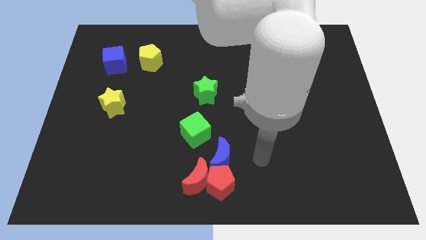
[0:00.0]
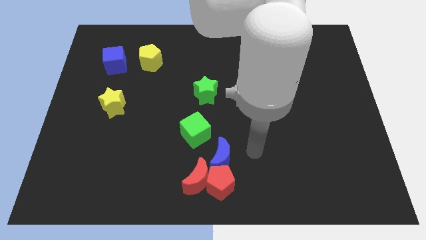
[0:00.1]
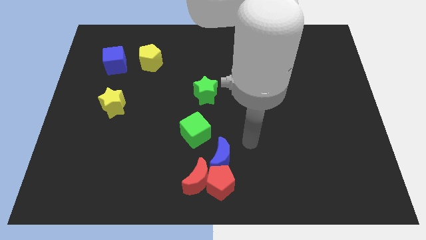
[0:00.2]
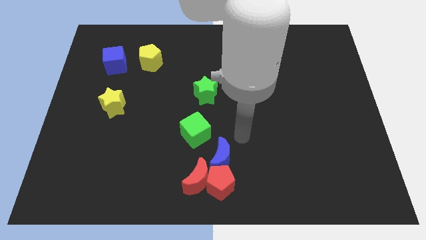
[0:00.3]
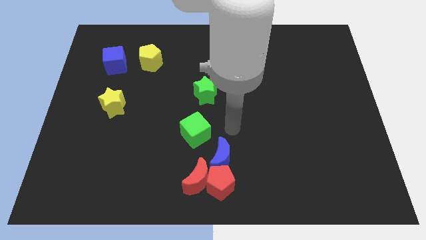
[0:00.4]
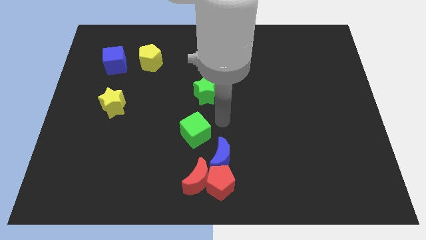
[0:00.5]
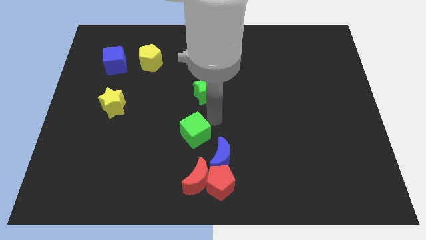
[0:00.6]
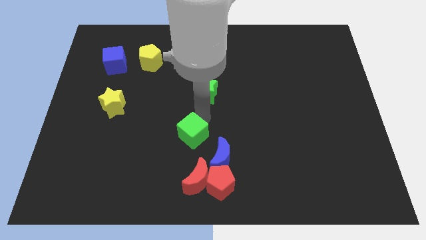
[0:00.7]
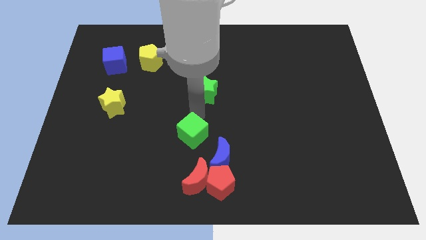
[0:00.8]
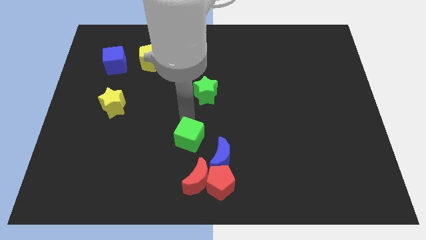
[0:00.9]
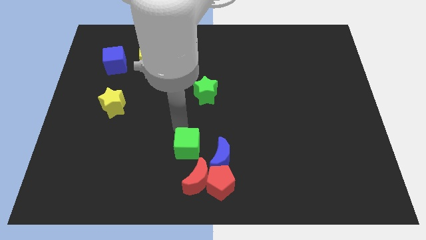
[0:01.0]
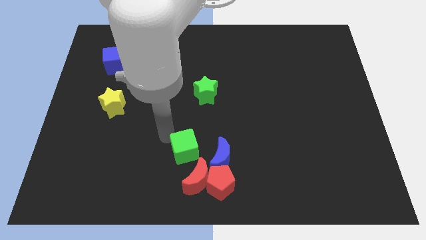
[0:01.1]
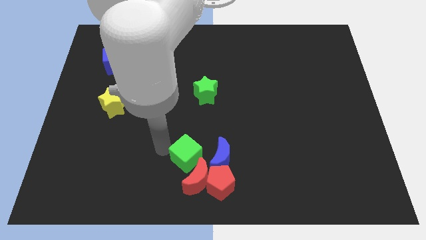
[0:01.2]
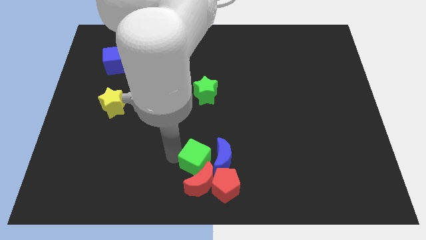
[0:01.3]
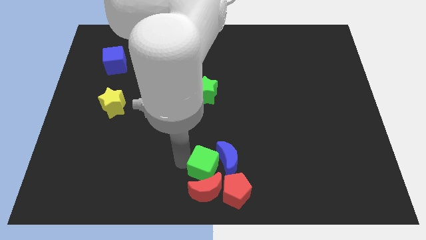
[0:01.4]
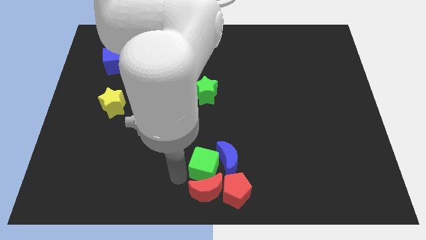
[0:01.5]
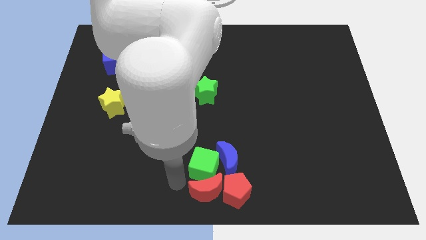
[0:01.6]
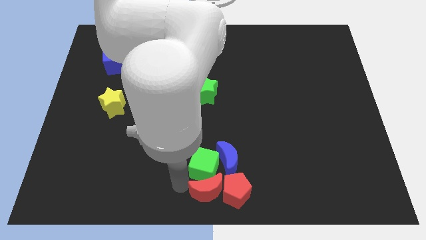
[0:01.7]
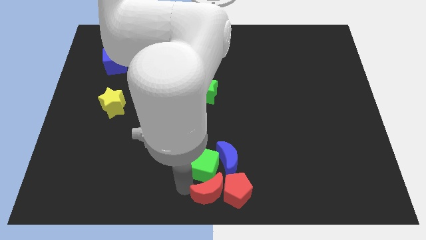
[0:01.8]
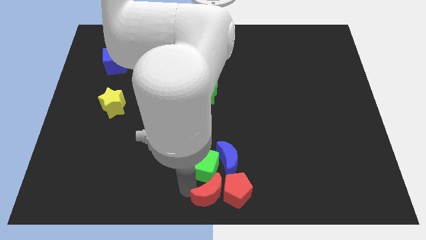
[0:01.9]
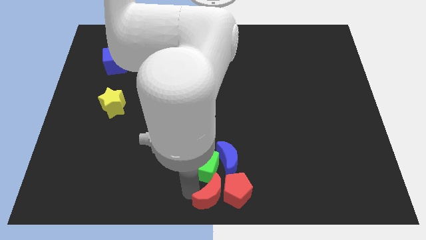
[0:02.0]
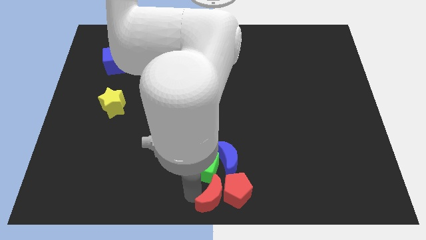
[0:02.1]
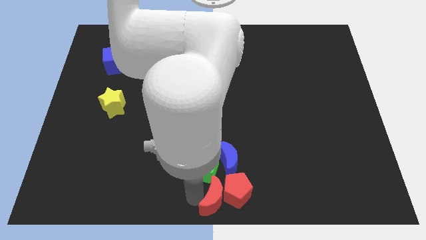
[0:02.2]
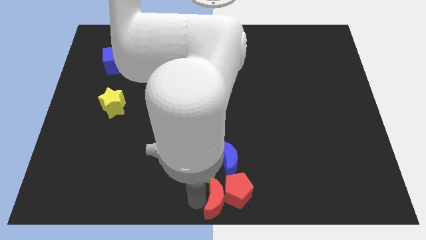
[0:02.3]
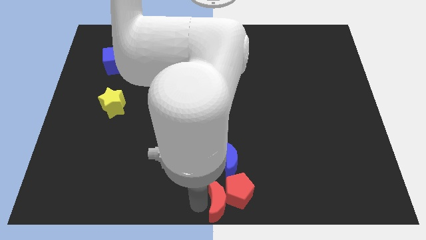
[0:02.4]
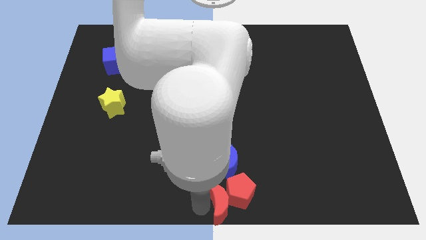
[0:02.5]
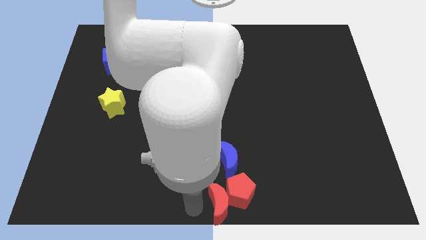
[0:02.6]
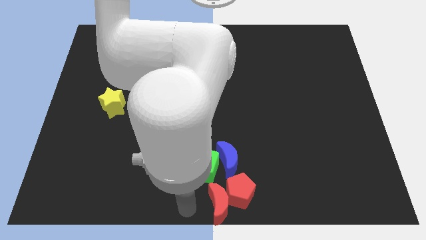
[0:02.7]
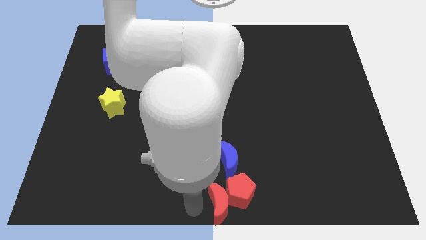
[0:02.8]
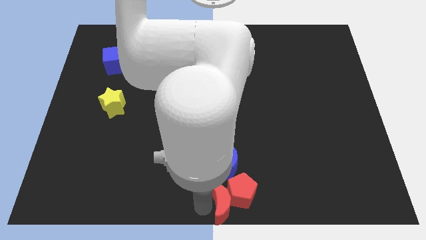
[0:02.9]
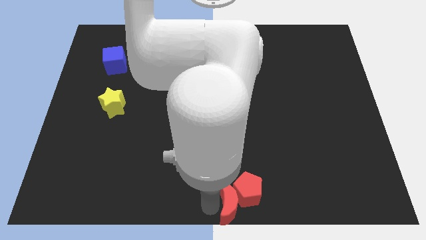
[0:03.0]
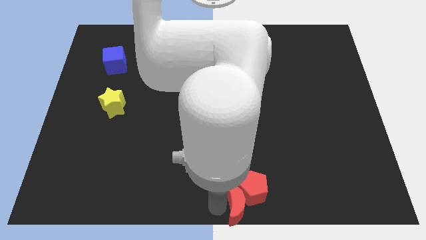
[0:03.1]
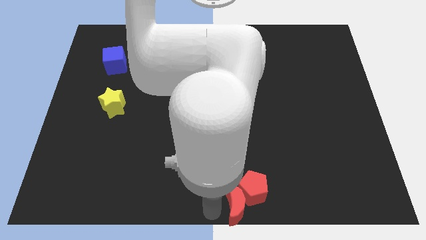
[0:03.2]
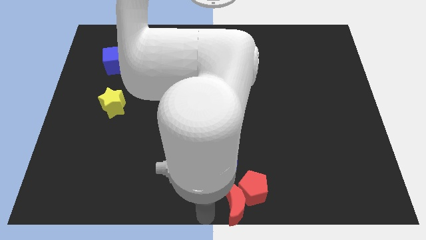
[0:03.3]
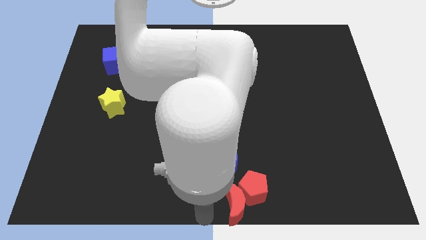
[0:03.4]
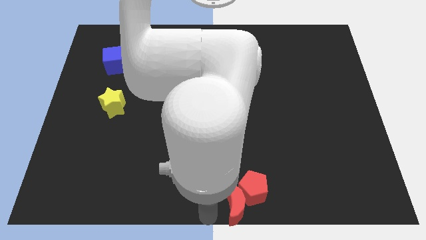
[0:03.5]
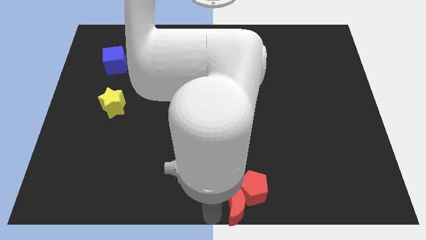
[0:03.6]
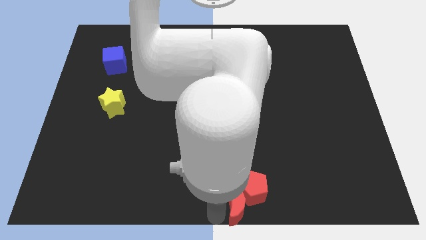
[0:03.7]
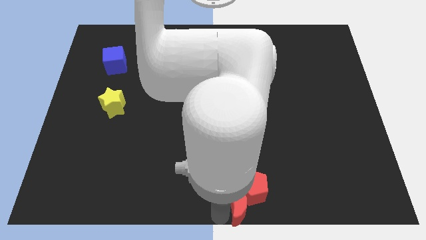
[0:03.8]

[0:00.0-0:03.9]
push the red moon a little right

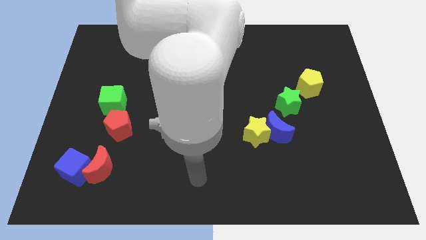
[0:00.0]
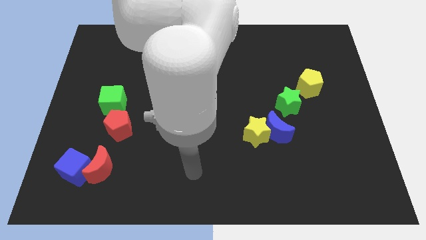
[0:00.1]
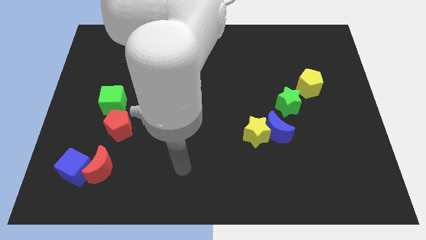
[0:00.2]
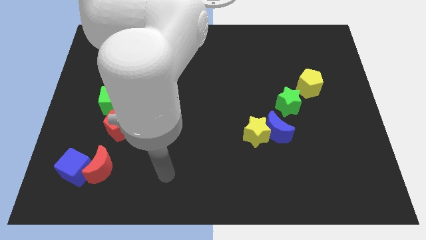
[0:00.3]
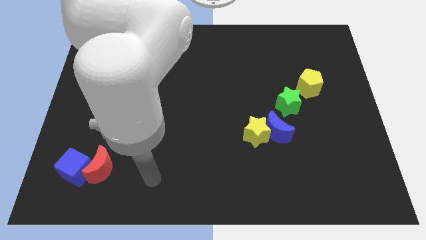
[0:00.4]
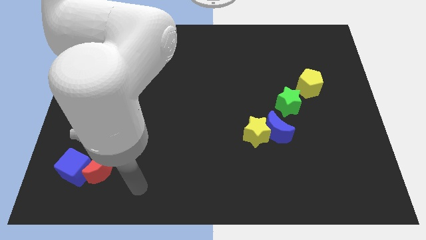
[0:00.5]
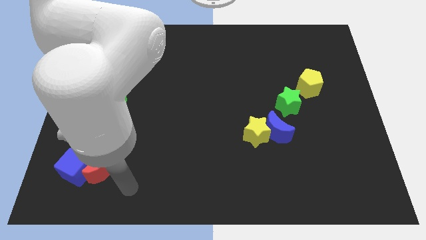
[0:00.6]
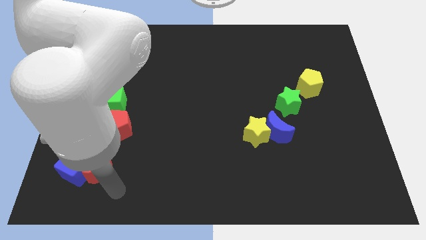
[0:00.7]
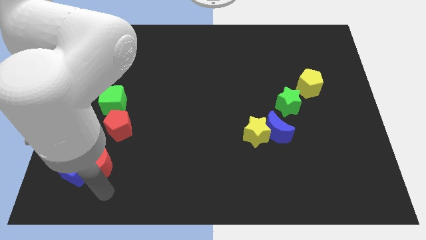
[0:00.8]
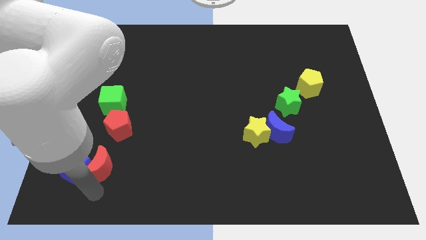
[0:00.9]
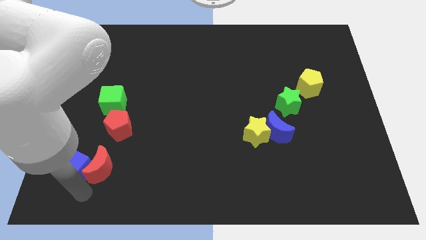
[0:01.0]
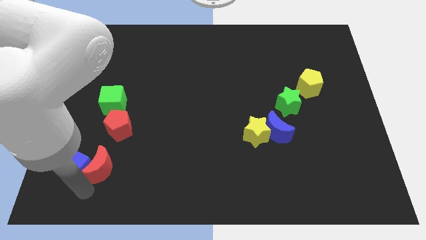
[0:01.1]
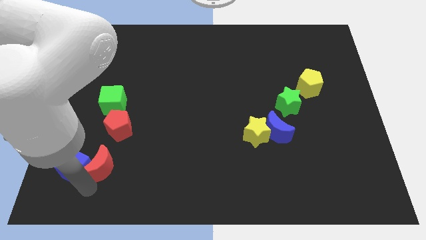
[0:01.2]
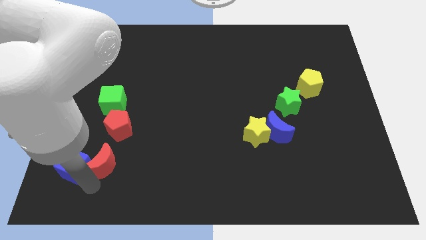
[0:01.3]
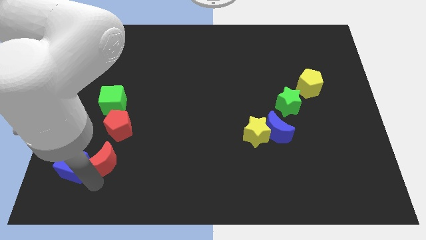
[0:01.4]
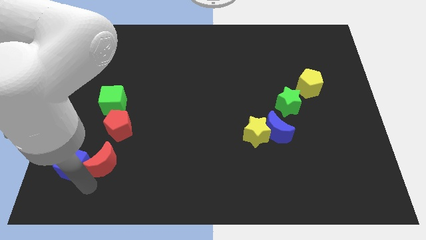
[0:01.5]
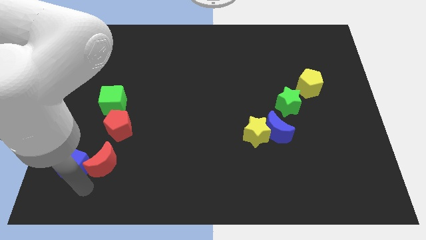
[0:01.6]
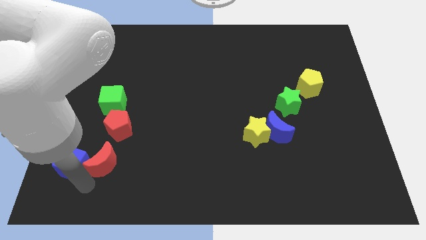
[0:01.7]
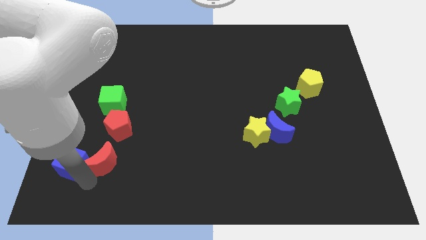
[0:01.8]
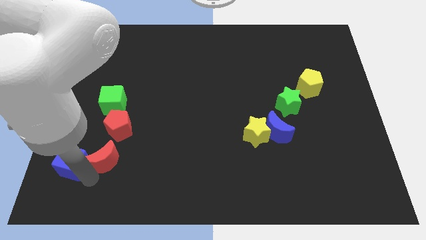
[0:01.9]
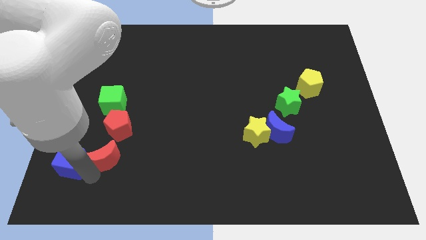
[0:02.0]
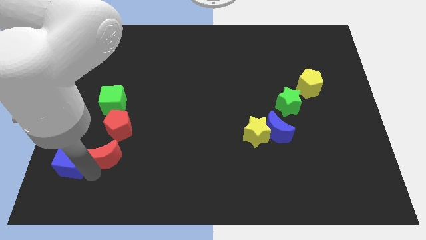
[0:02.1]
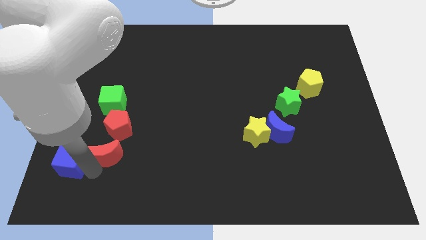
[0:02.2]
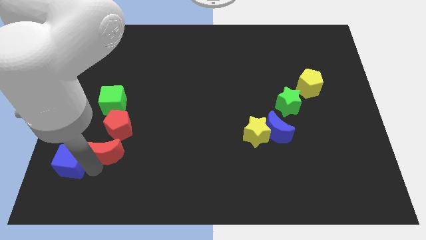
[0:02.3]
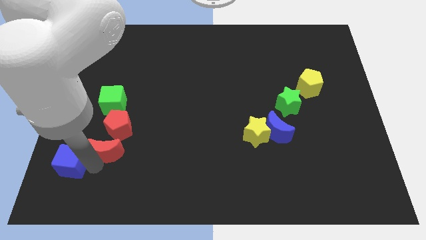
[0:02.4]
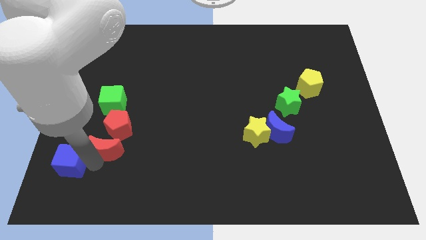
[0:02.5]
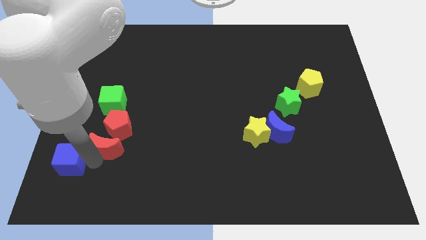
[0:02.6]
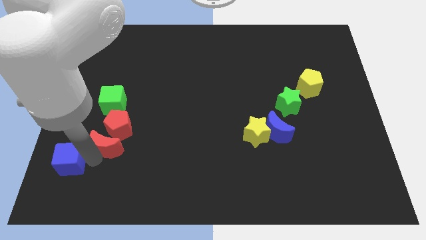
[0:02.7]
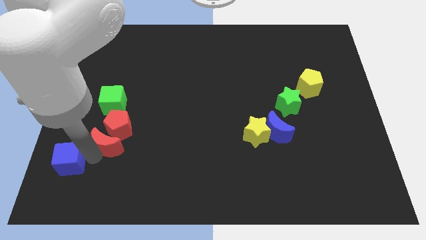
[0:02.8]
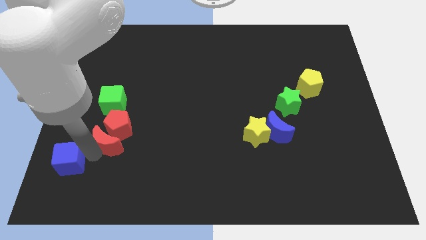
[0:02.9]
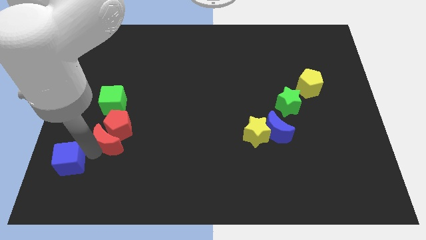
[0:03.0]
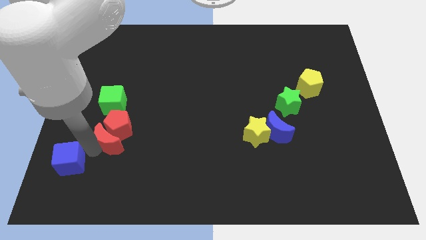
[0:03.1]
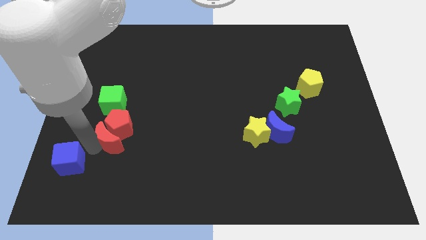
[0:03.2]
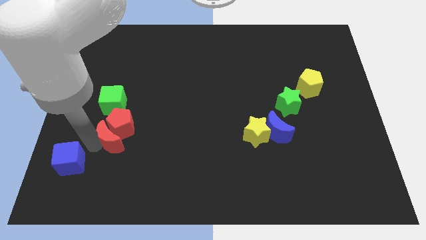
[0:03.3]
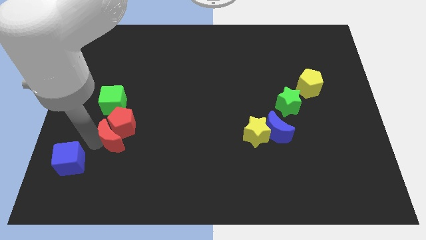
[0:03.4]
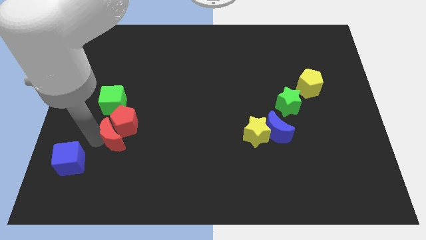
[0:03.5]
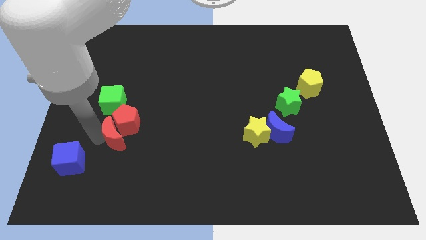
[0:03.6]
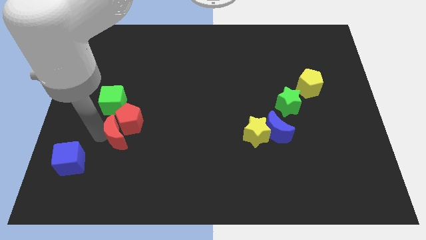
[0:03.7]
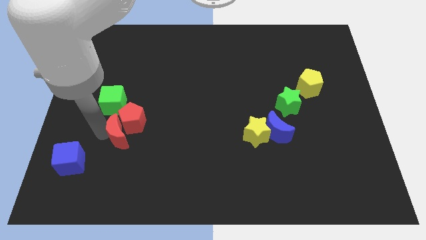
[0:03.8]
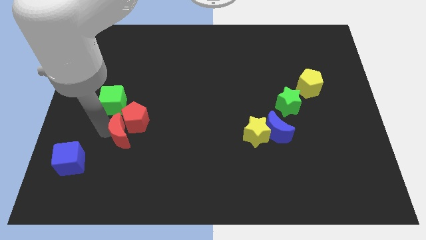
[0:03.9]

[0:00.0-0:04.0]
move the red moon upwards and to the right a little
